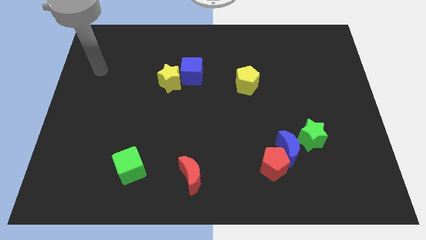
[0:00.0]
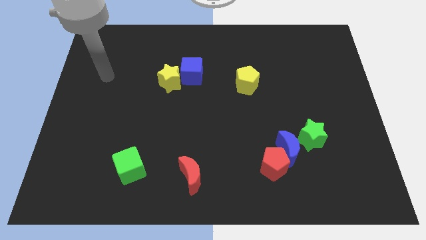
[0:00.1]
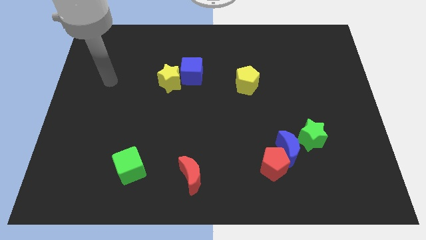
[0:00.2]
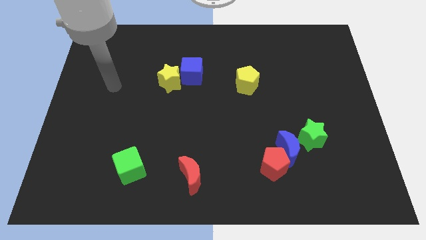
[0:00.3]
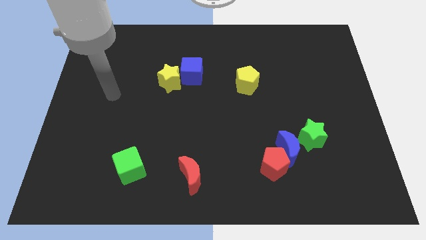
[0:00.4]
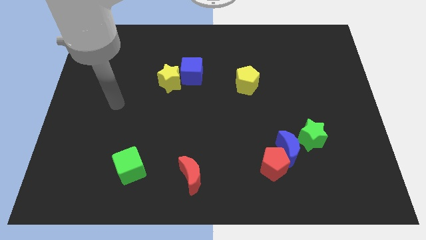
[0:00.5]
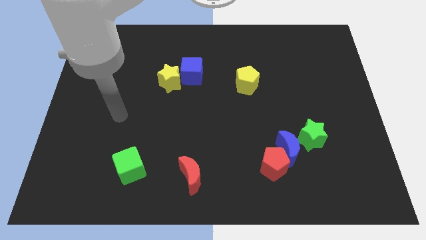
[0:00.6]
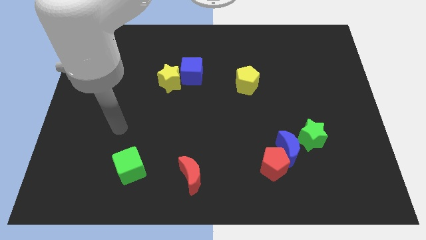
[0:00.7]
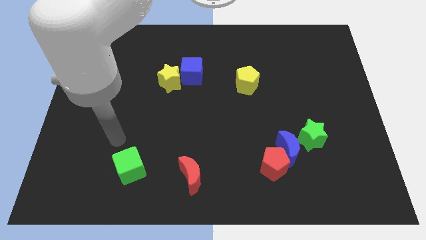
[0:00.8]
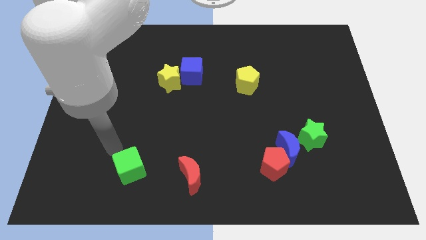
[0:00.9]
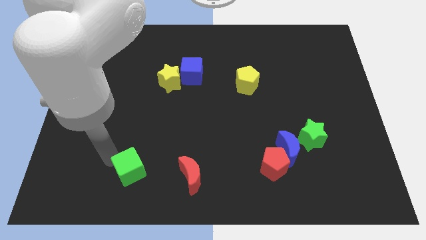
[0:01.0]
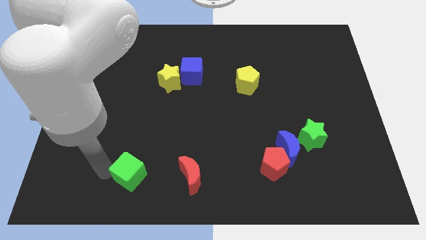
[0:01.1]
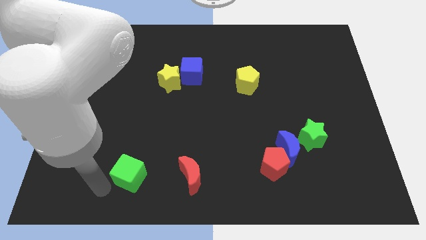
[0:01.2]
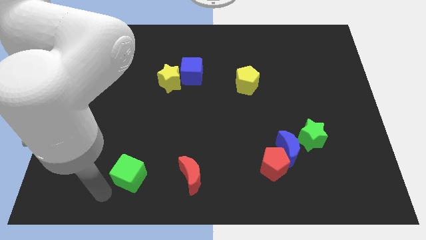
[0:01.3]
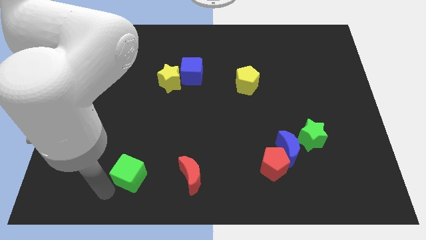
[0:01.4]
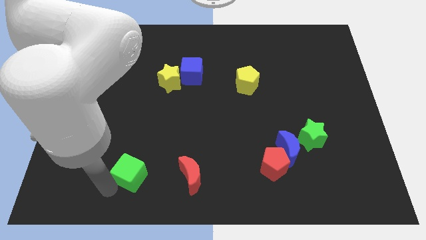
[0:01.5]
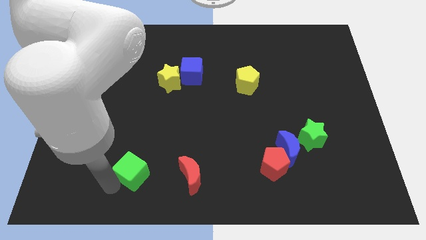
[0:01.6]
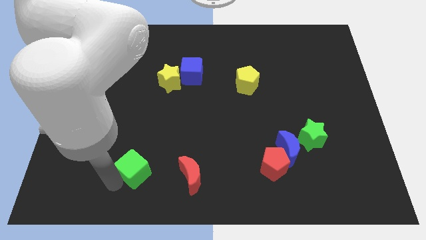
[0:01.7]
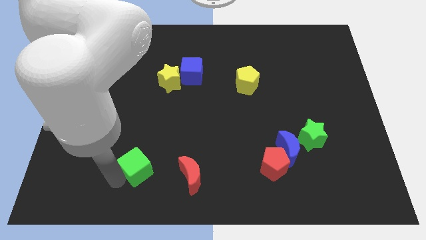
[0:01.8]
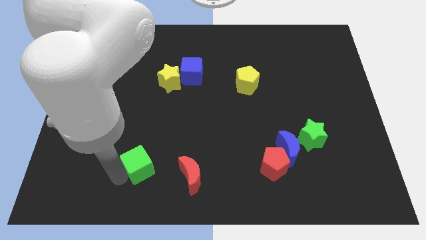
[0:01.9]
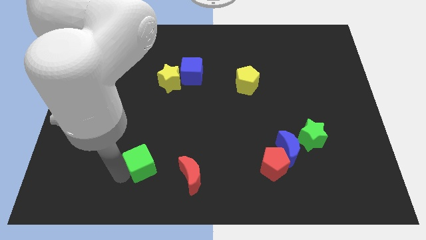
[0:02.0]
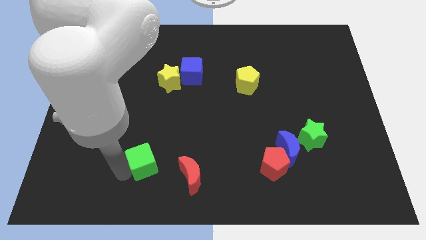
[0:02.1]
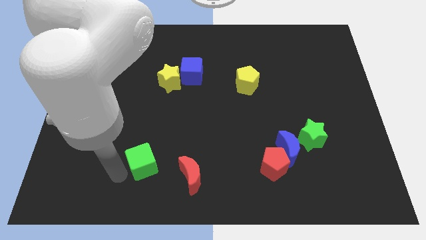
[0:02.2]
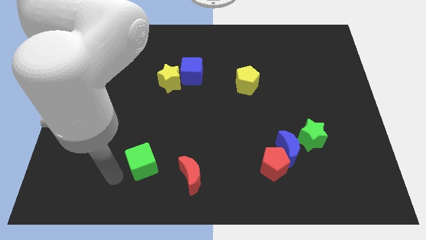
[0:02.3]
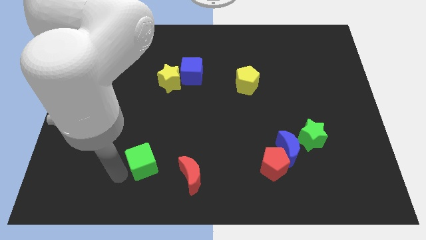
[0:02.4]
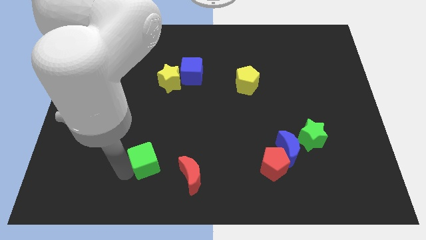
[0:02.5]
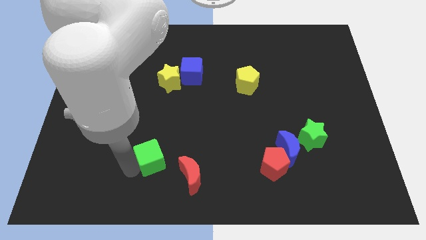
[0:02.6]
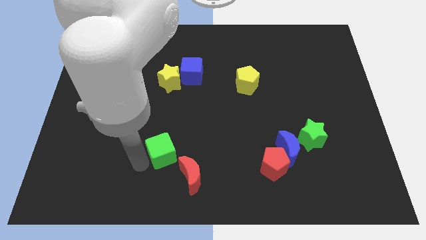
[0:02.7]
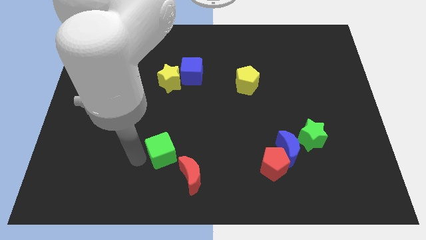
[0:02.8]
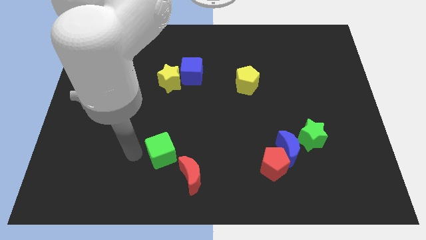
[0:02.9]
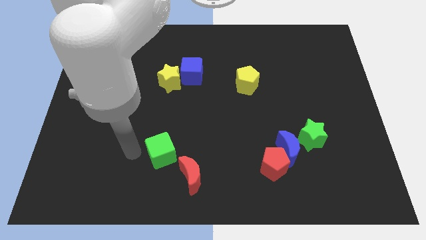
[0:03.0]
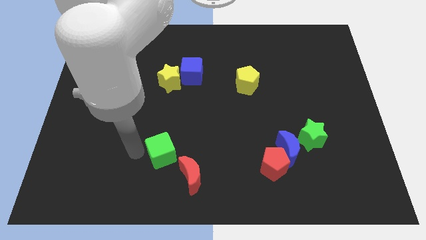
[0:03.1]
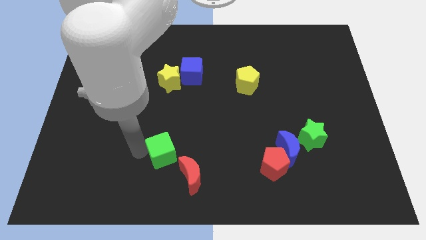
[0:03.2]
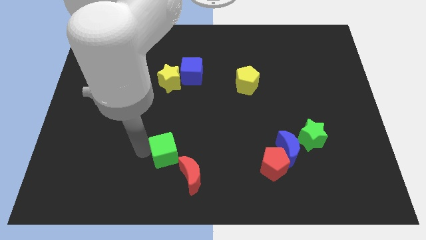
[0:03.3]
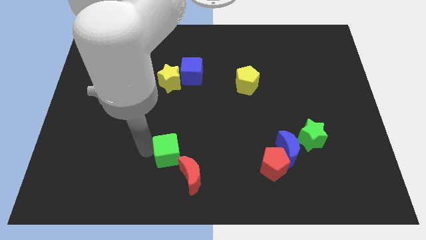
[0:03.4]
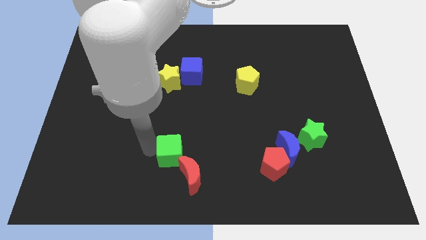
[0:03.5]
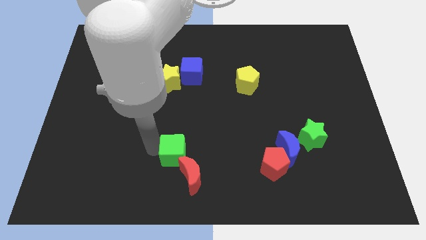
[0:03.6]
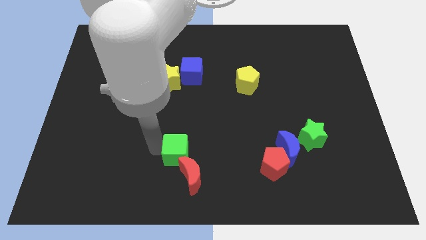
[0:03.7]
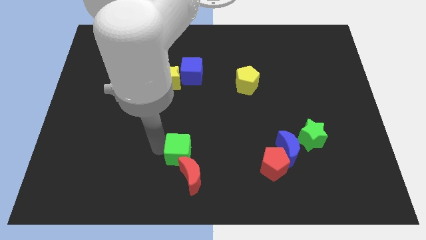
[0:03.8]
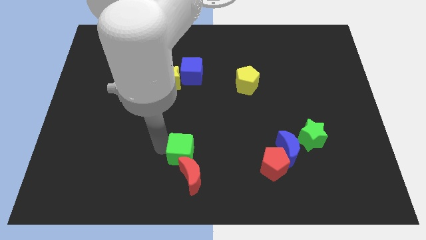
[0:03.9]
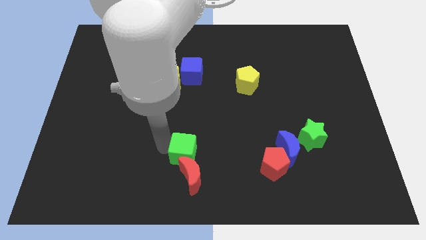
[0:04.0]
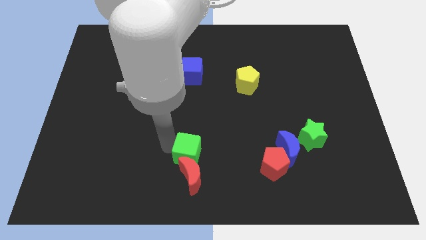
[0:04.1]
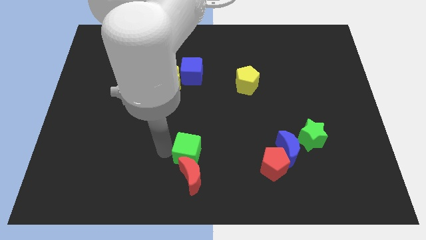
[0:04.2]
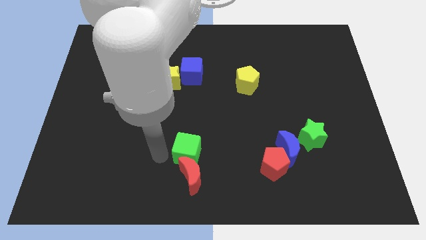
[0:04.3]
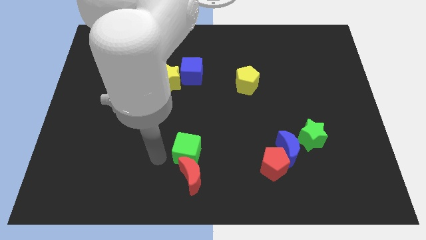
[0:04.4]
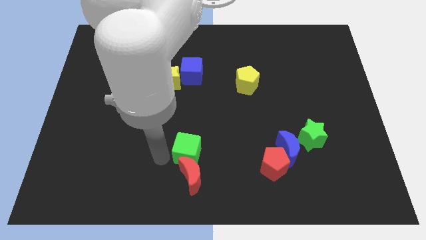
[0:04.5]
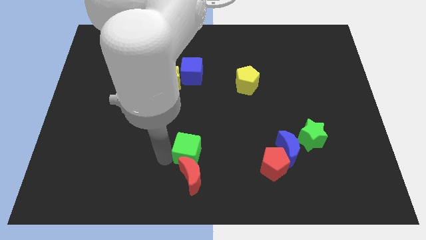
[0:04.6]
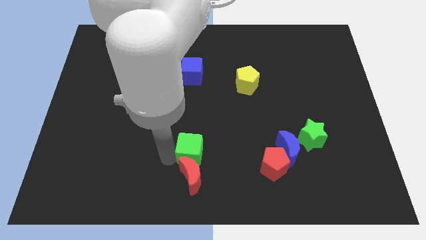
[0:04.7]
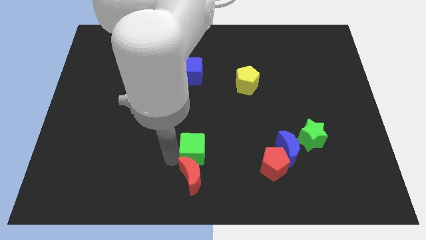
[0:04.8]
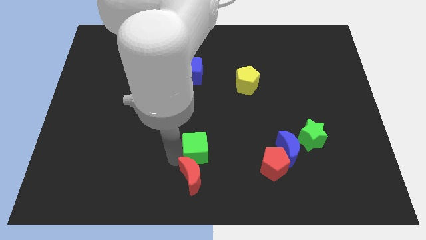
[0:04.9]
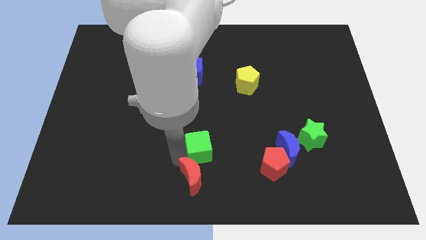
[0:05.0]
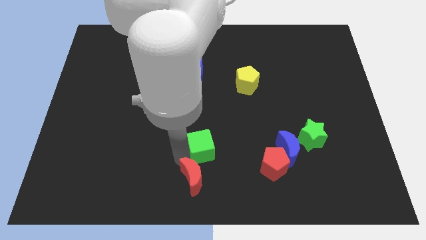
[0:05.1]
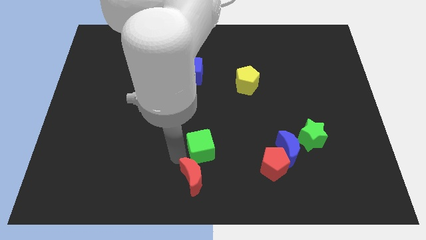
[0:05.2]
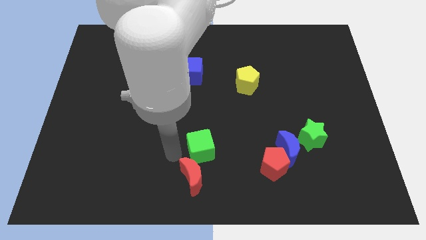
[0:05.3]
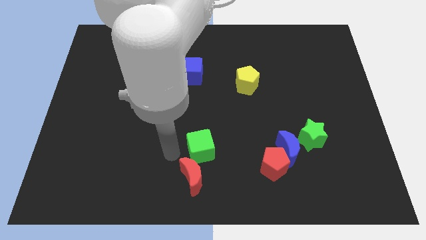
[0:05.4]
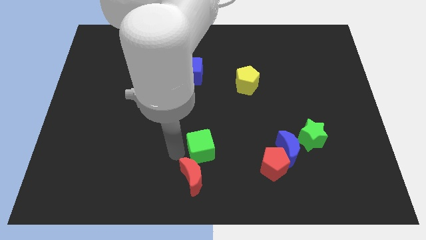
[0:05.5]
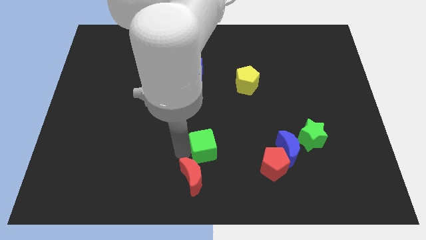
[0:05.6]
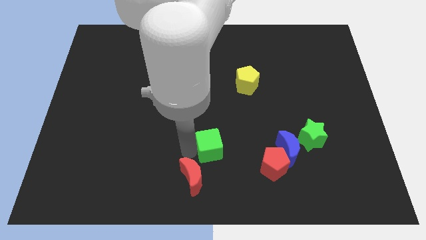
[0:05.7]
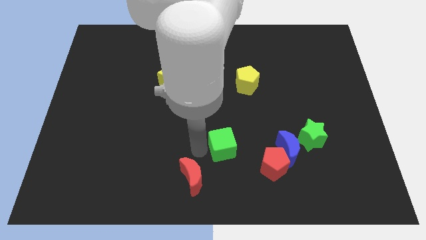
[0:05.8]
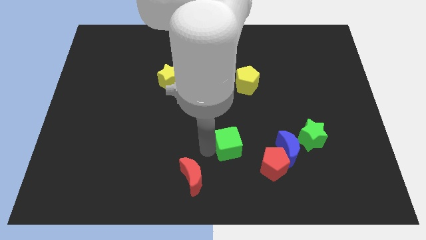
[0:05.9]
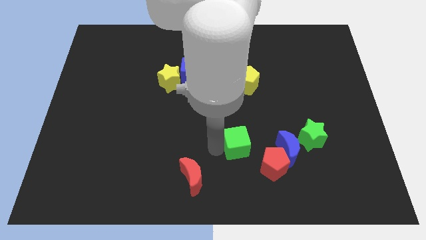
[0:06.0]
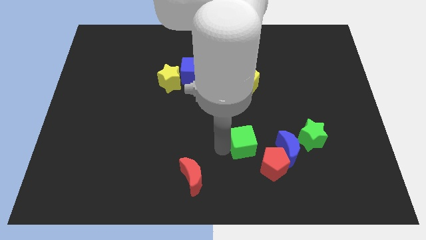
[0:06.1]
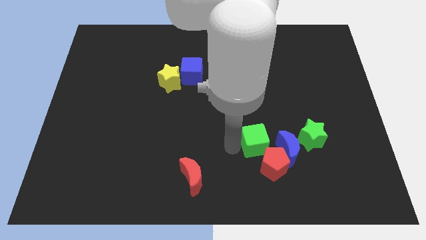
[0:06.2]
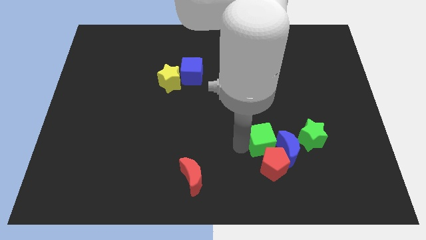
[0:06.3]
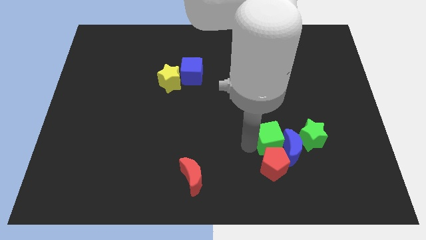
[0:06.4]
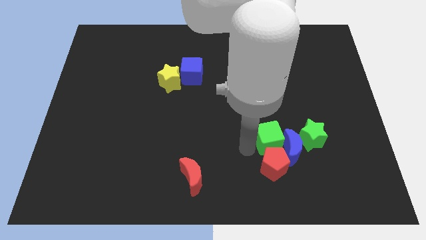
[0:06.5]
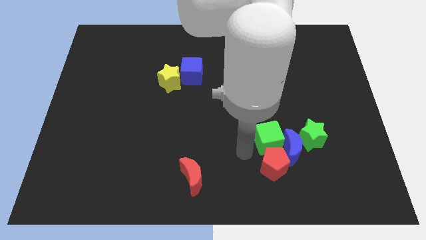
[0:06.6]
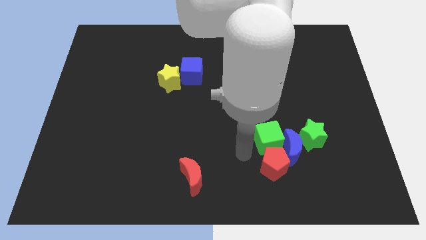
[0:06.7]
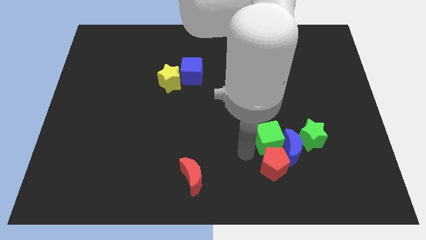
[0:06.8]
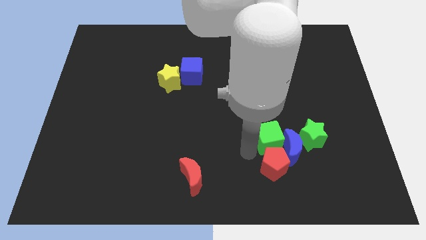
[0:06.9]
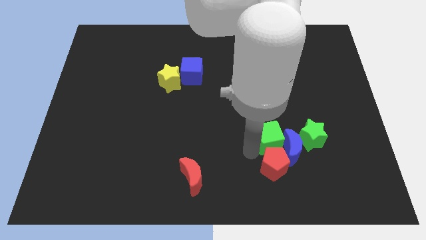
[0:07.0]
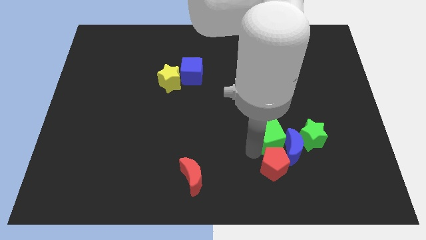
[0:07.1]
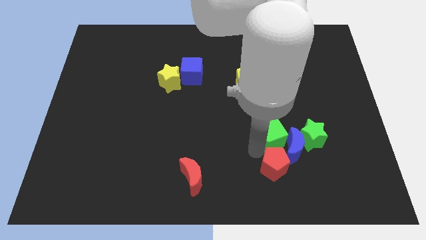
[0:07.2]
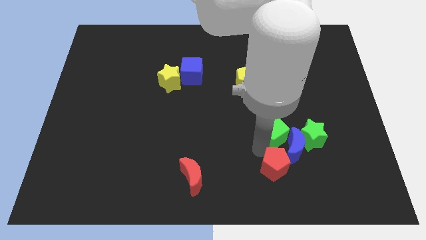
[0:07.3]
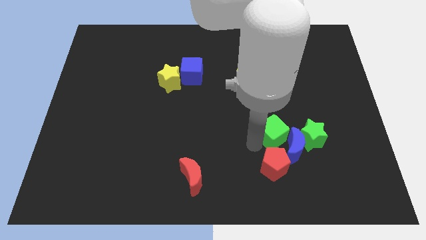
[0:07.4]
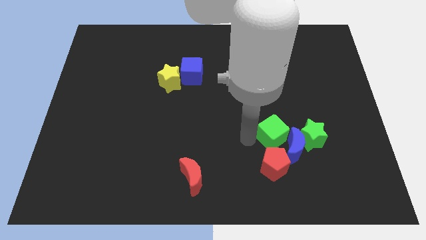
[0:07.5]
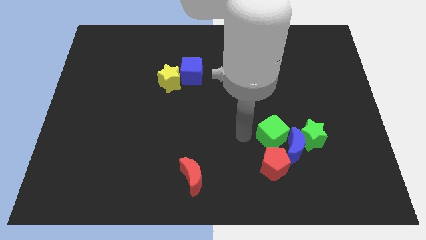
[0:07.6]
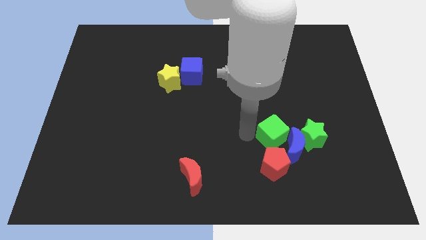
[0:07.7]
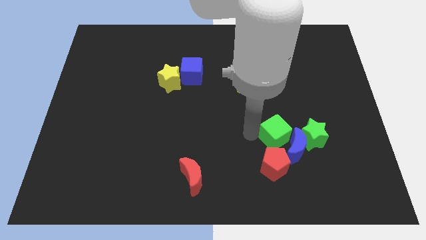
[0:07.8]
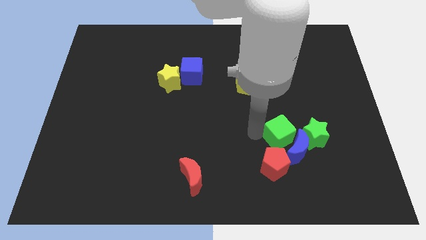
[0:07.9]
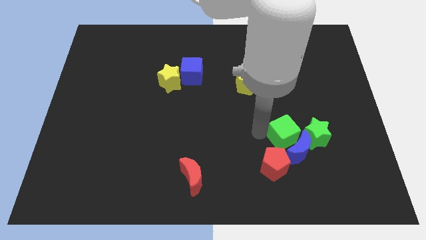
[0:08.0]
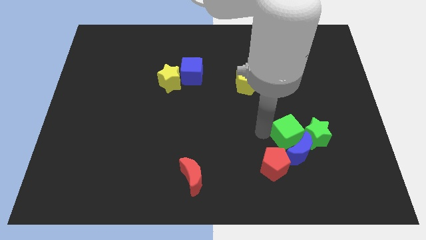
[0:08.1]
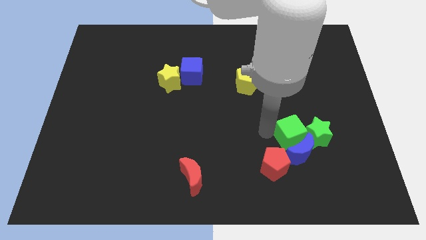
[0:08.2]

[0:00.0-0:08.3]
push the green cube next to the green star
